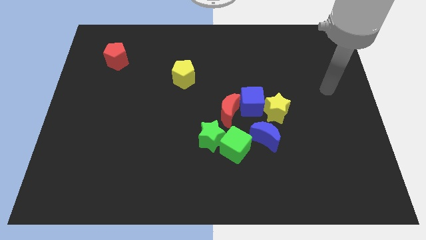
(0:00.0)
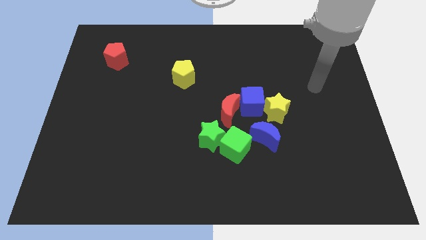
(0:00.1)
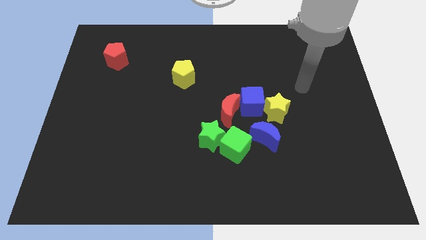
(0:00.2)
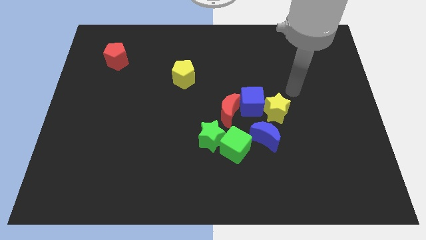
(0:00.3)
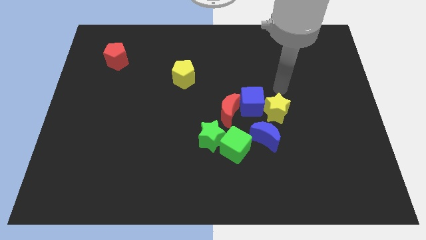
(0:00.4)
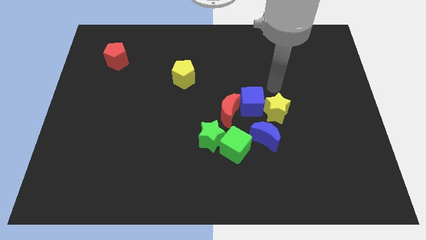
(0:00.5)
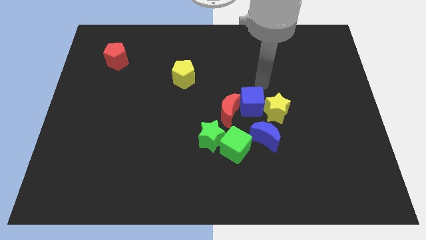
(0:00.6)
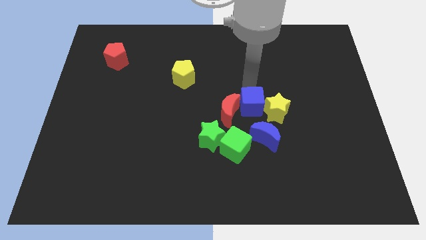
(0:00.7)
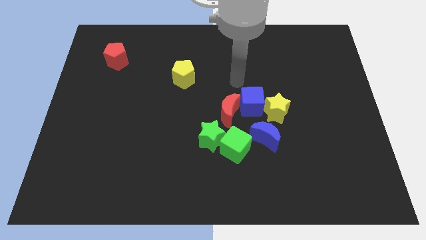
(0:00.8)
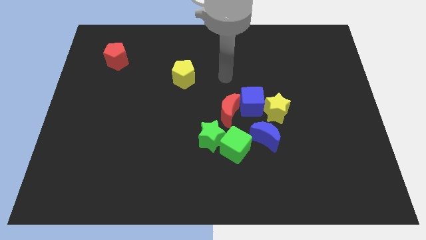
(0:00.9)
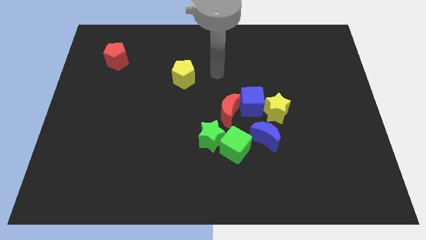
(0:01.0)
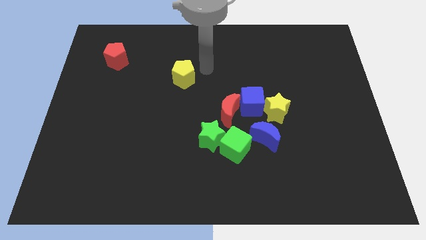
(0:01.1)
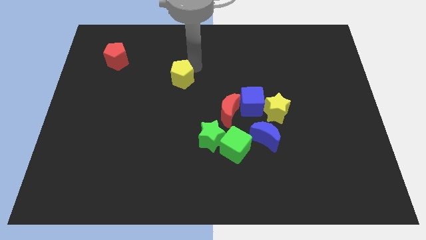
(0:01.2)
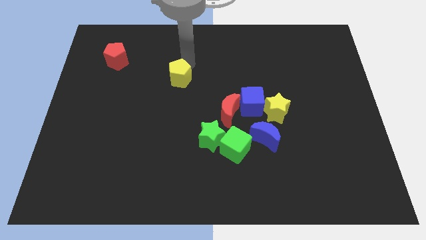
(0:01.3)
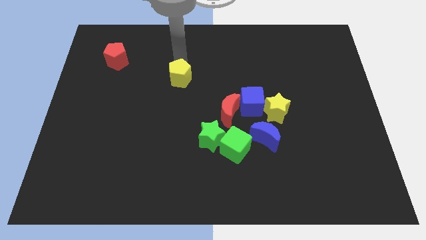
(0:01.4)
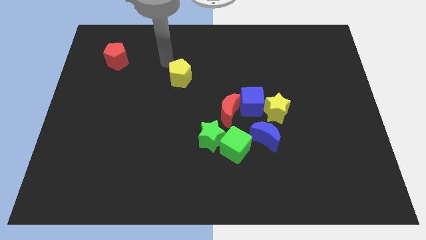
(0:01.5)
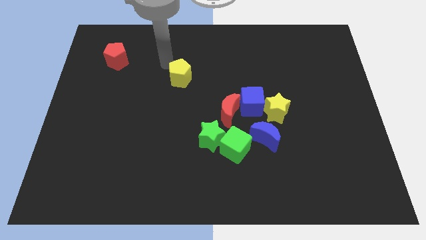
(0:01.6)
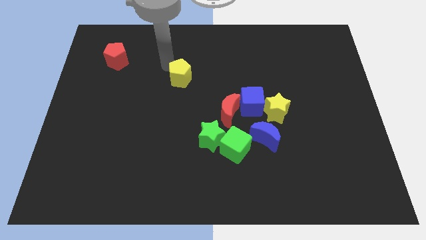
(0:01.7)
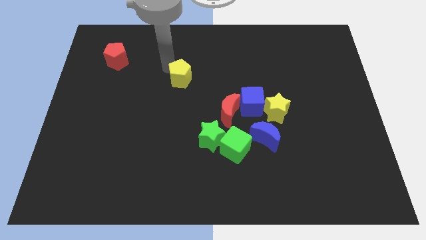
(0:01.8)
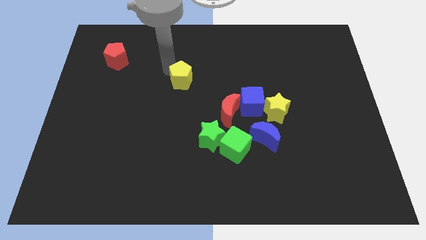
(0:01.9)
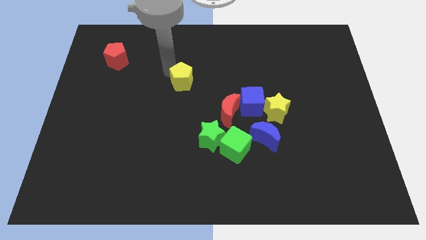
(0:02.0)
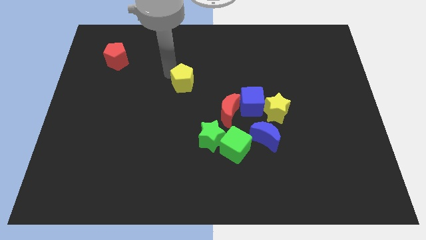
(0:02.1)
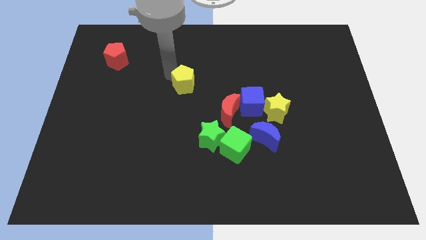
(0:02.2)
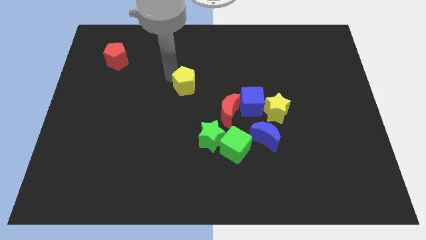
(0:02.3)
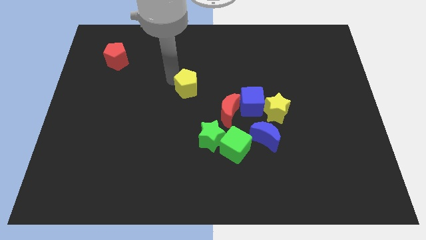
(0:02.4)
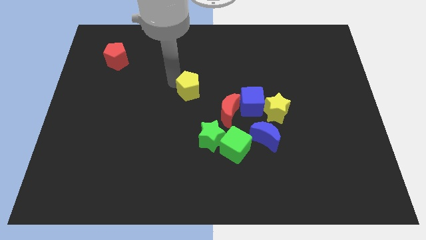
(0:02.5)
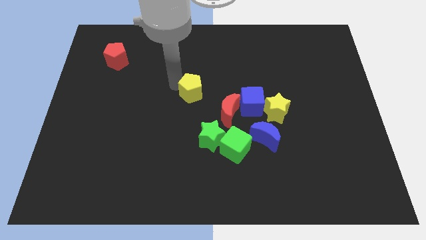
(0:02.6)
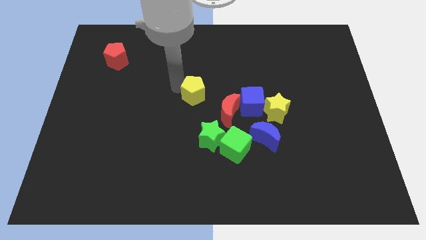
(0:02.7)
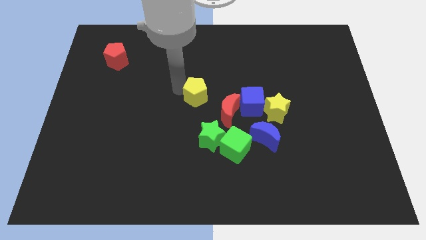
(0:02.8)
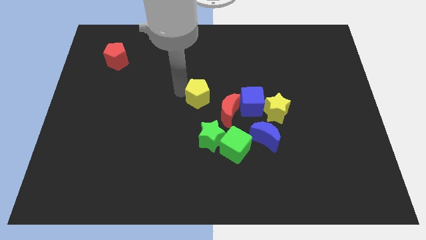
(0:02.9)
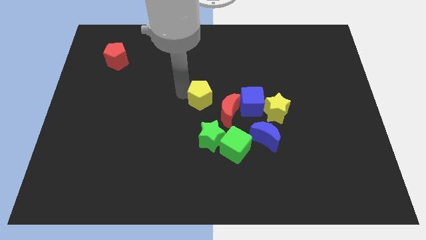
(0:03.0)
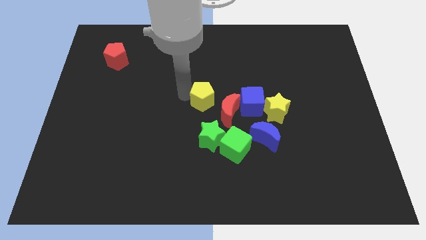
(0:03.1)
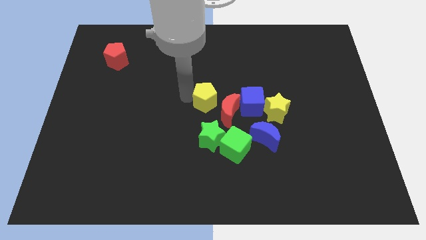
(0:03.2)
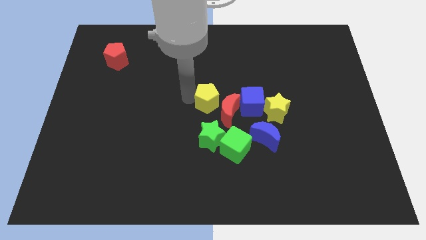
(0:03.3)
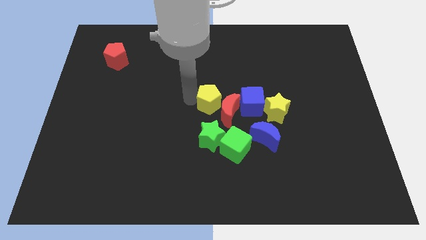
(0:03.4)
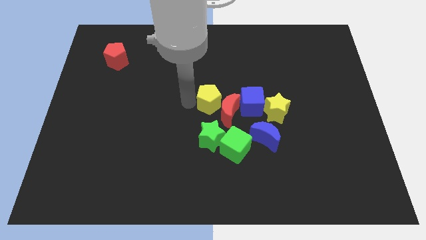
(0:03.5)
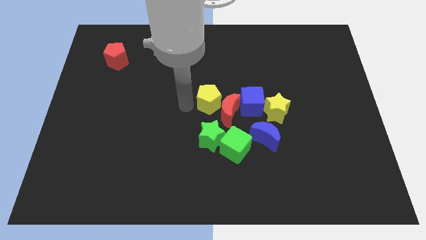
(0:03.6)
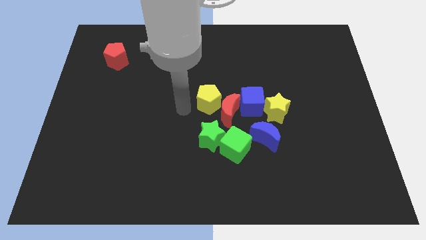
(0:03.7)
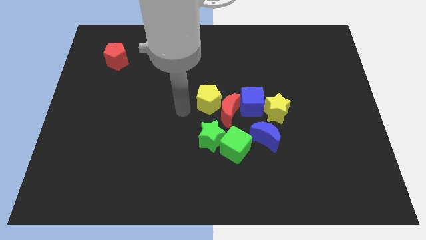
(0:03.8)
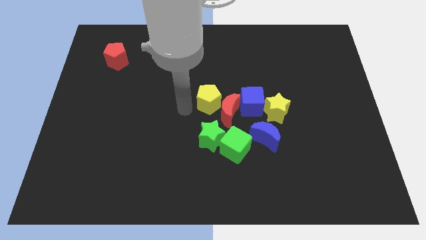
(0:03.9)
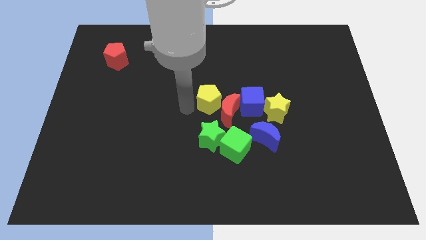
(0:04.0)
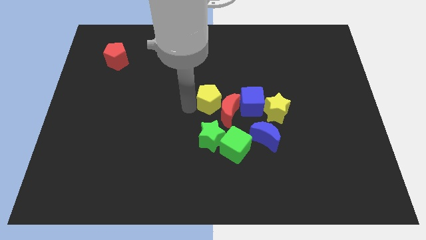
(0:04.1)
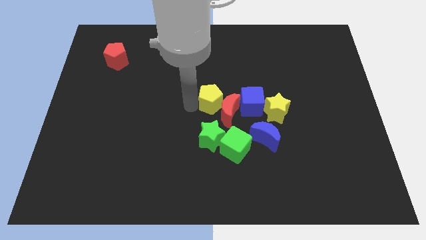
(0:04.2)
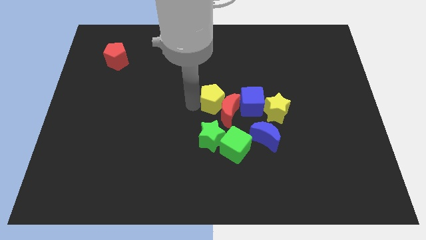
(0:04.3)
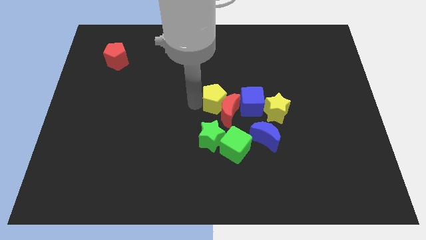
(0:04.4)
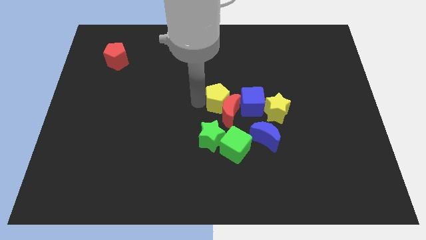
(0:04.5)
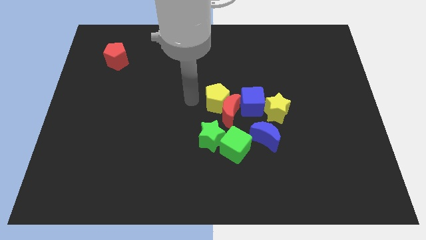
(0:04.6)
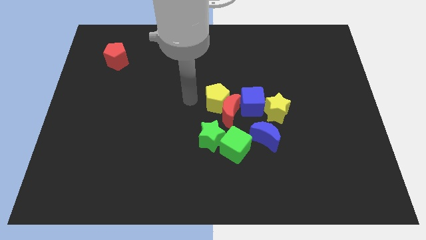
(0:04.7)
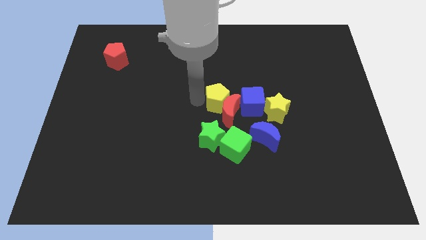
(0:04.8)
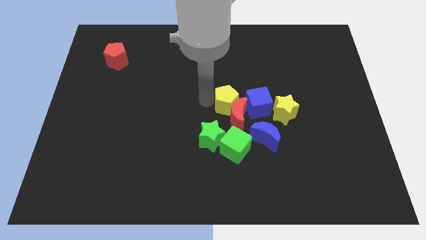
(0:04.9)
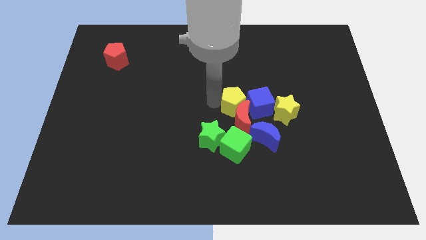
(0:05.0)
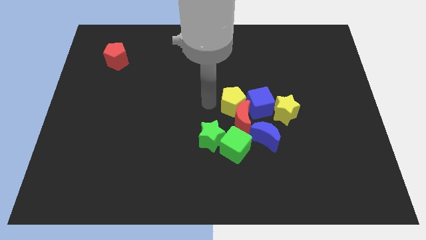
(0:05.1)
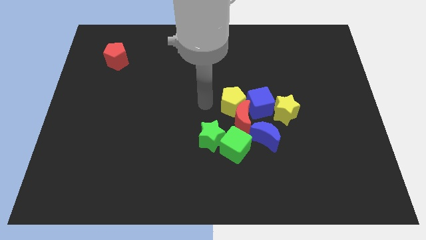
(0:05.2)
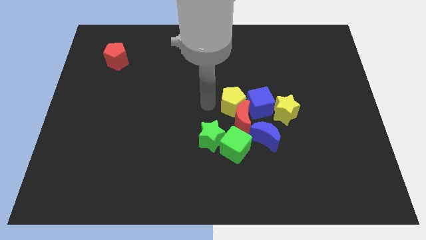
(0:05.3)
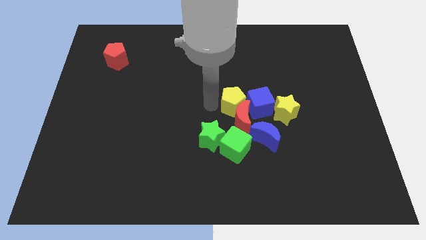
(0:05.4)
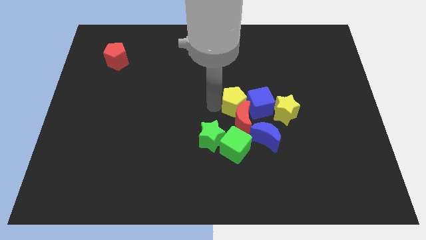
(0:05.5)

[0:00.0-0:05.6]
move the yellow pentagon towards the blue cube

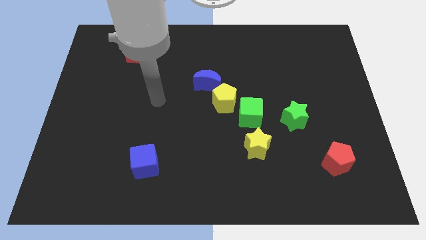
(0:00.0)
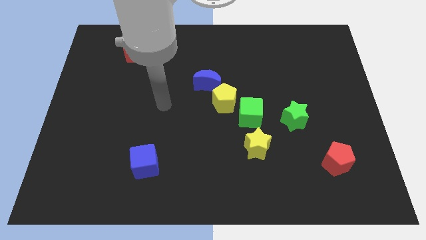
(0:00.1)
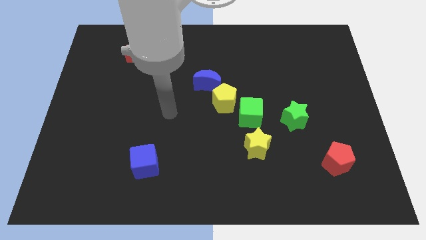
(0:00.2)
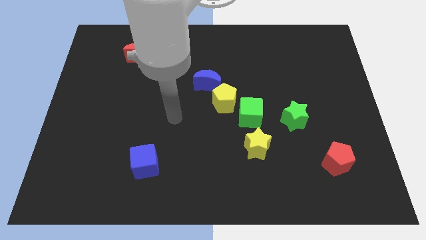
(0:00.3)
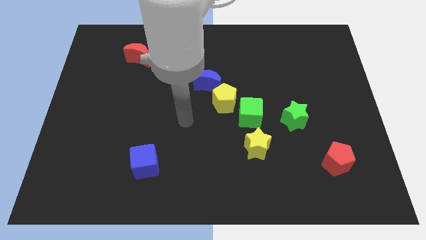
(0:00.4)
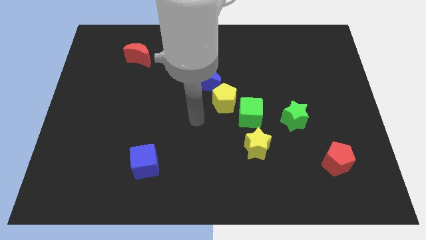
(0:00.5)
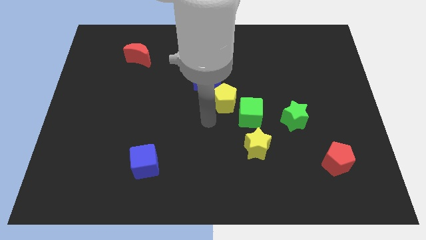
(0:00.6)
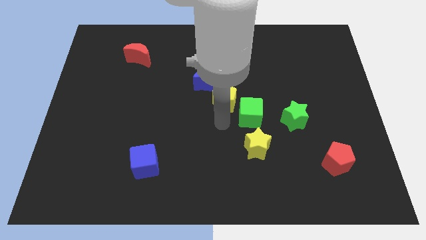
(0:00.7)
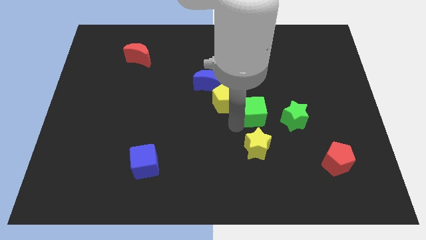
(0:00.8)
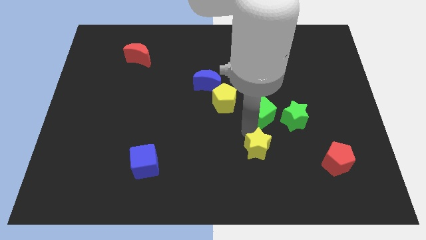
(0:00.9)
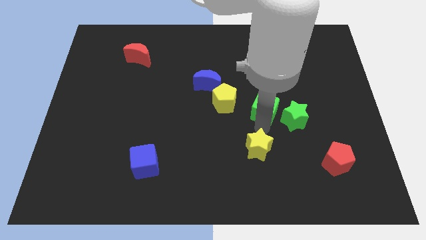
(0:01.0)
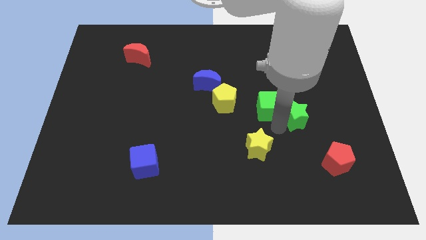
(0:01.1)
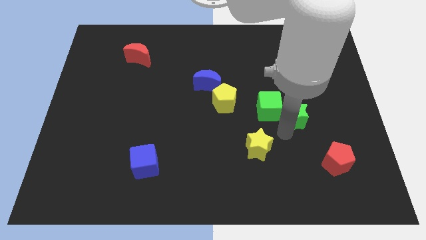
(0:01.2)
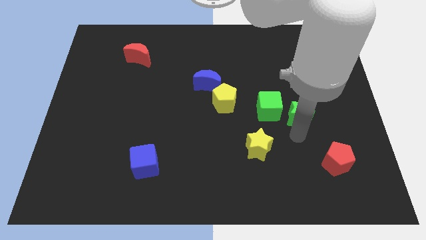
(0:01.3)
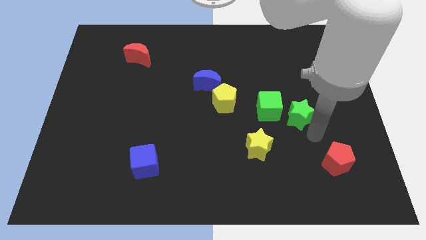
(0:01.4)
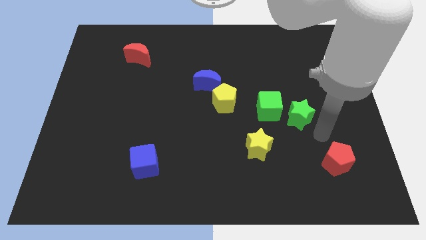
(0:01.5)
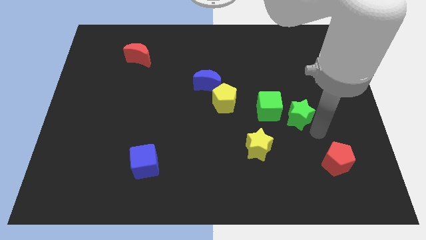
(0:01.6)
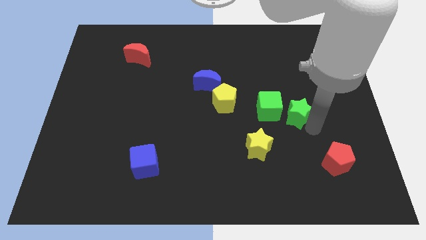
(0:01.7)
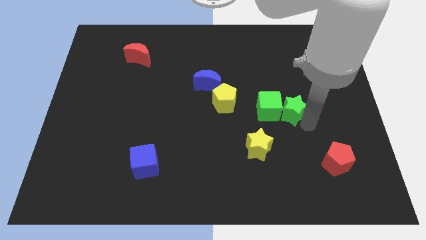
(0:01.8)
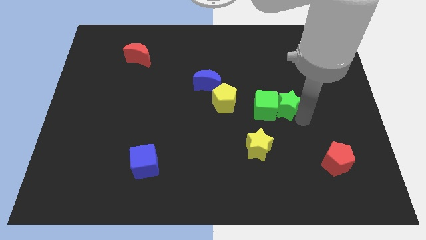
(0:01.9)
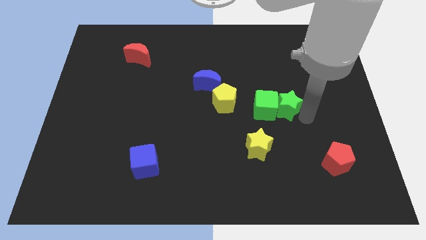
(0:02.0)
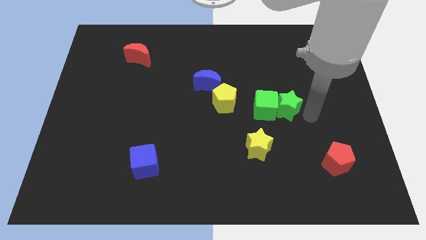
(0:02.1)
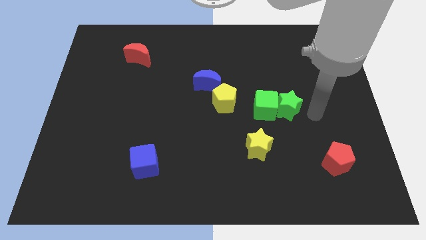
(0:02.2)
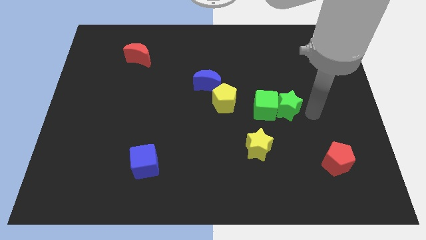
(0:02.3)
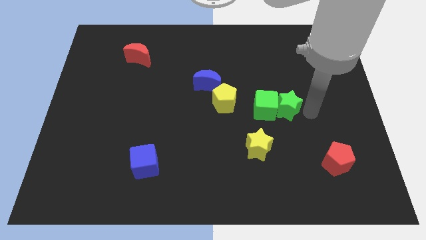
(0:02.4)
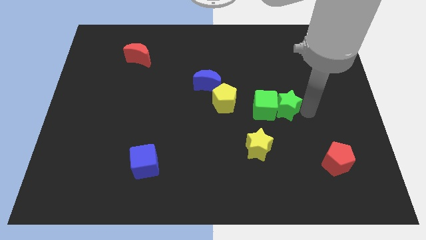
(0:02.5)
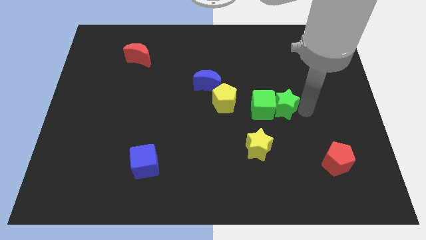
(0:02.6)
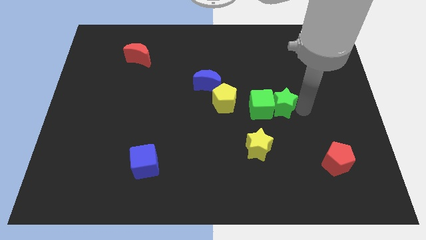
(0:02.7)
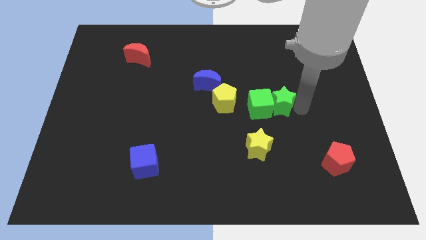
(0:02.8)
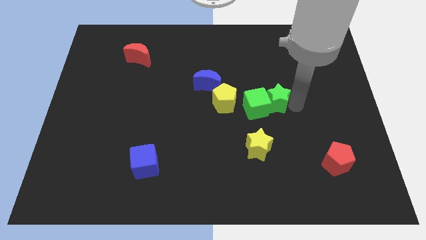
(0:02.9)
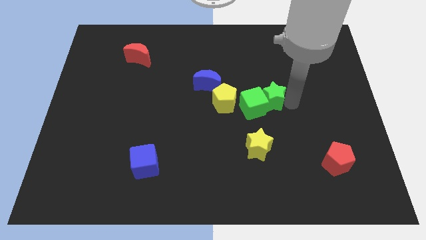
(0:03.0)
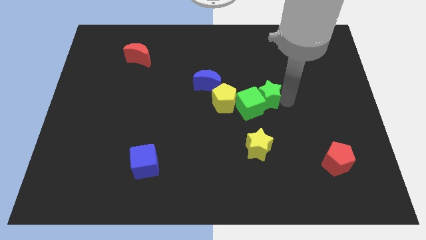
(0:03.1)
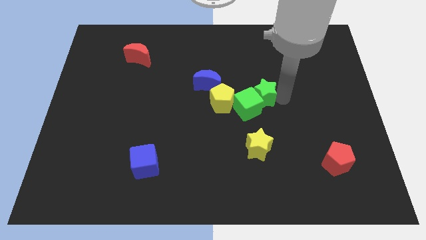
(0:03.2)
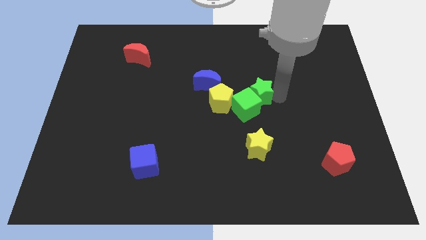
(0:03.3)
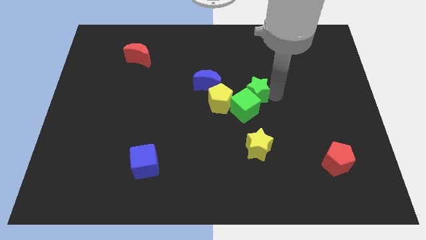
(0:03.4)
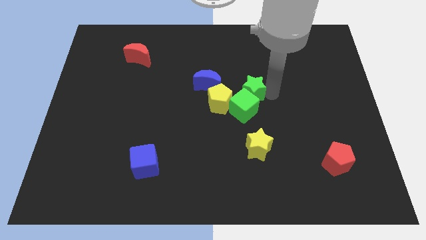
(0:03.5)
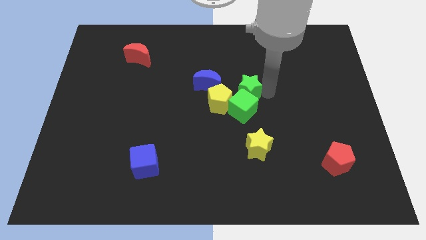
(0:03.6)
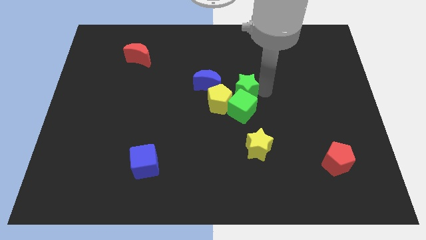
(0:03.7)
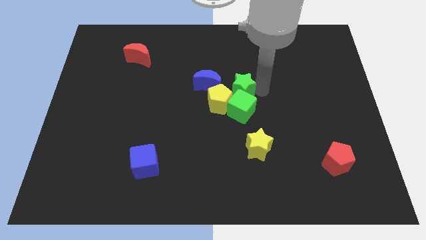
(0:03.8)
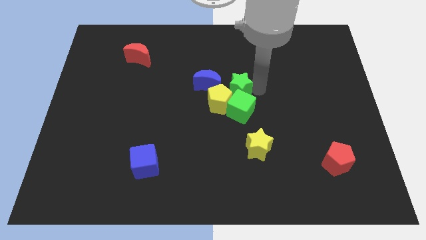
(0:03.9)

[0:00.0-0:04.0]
push the green star to the yellow pentagon
